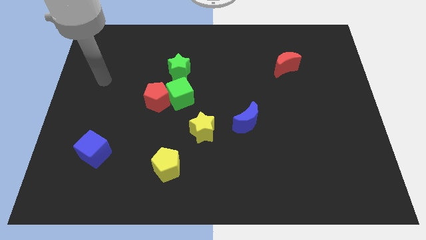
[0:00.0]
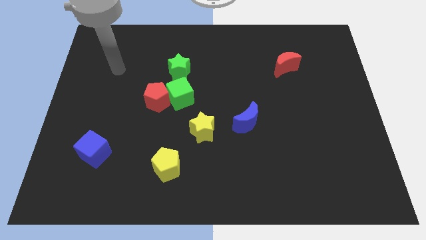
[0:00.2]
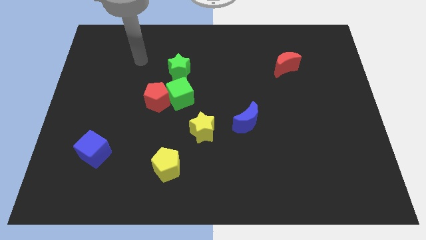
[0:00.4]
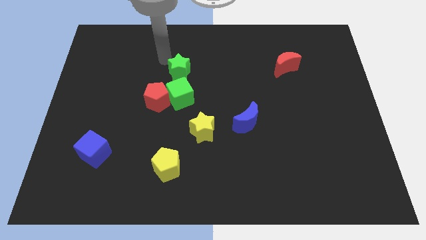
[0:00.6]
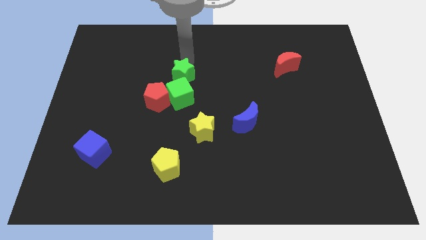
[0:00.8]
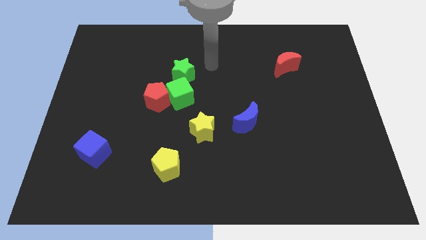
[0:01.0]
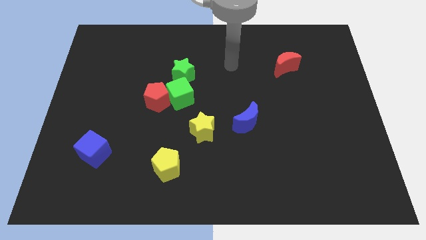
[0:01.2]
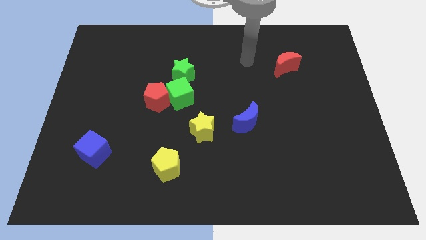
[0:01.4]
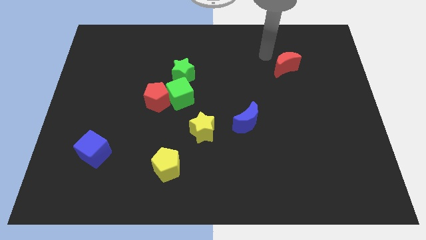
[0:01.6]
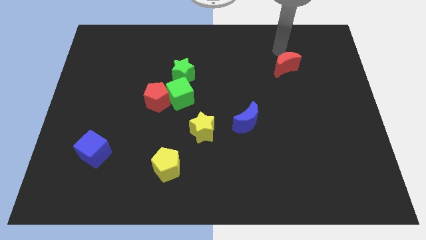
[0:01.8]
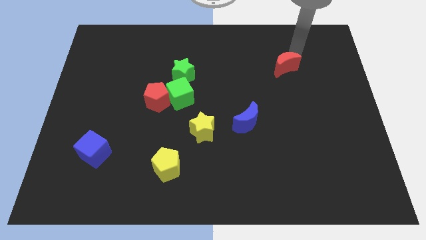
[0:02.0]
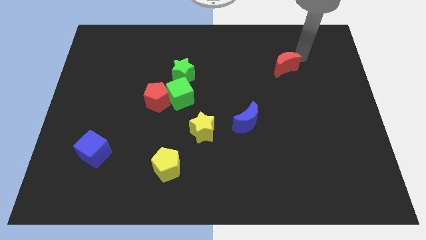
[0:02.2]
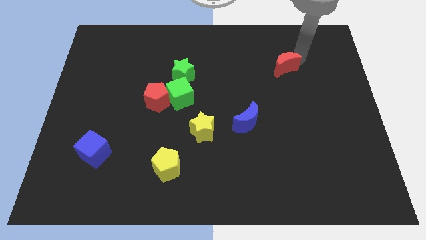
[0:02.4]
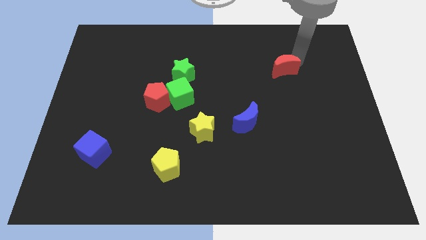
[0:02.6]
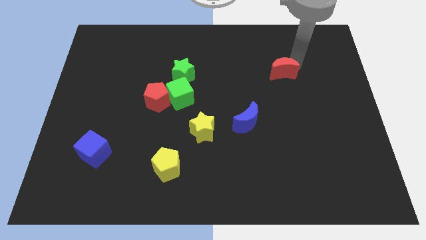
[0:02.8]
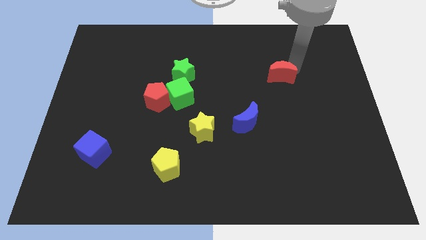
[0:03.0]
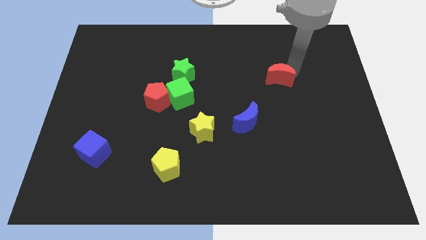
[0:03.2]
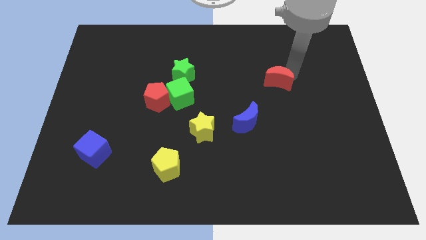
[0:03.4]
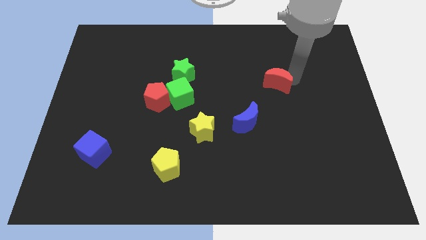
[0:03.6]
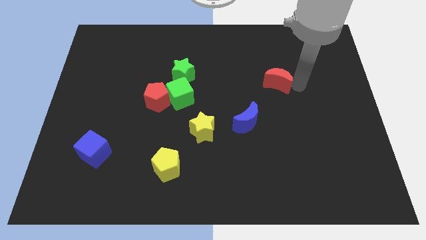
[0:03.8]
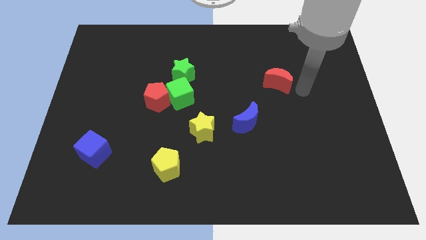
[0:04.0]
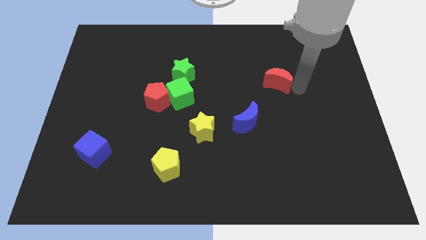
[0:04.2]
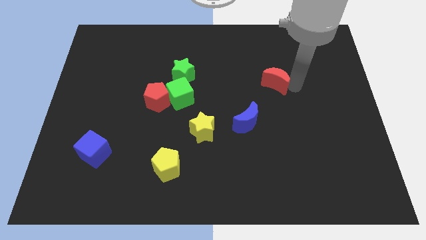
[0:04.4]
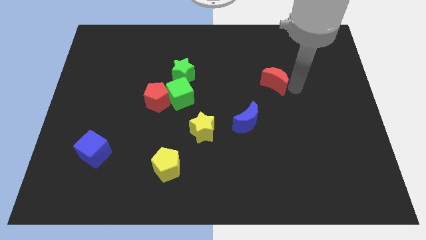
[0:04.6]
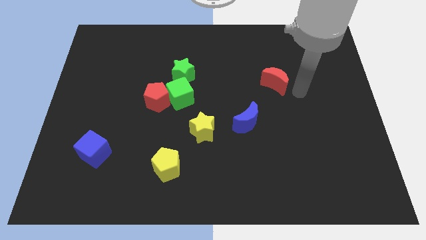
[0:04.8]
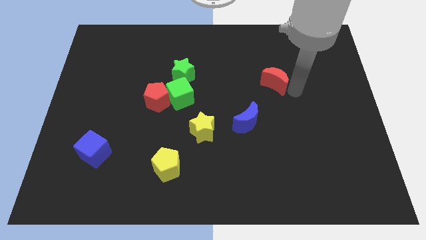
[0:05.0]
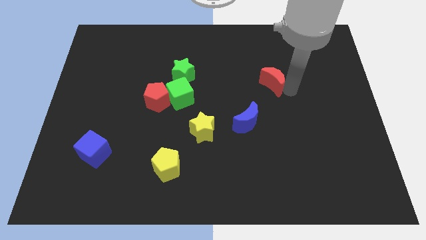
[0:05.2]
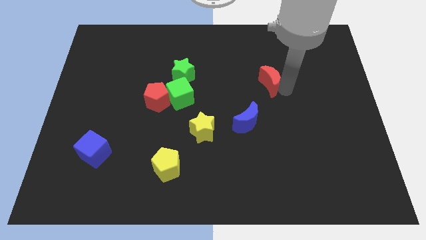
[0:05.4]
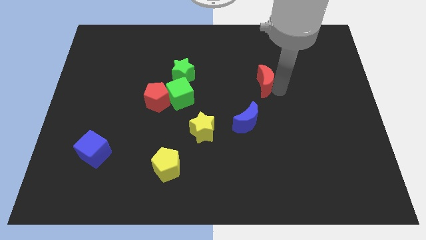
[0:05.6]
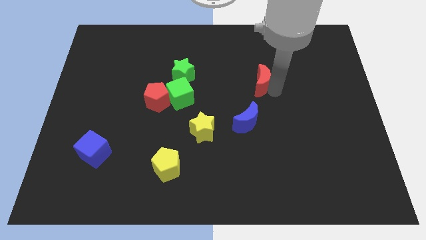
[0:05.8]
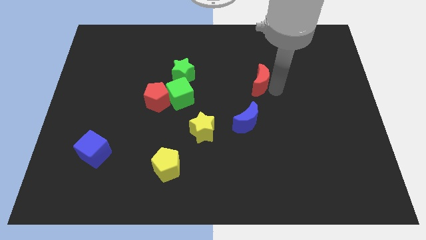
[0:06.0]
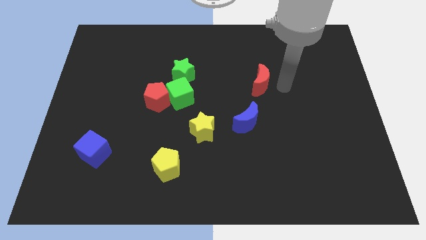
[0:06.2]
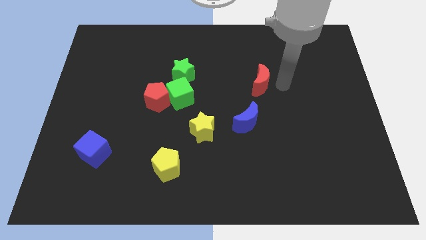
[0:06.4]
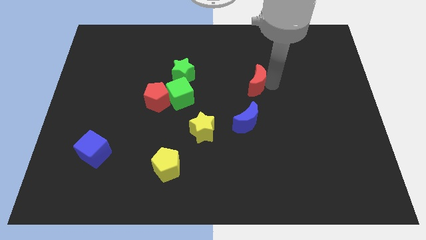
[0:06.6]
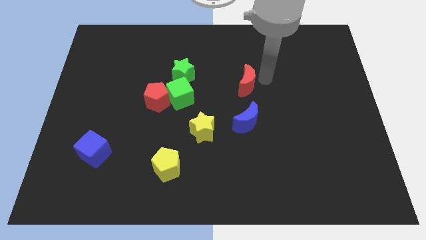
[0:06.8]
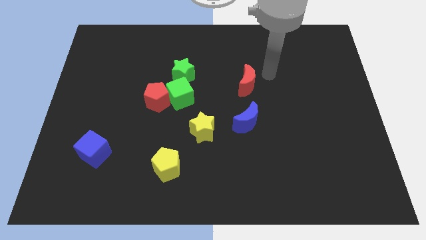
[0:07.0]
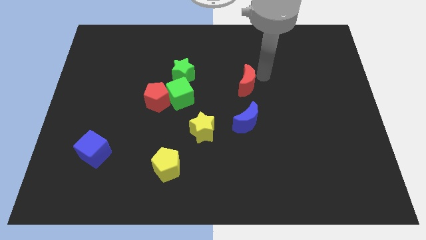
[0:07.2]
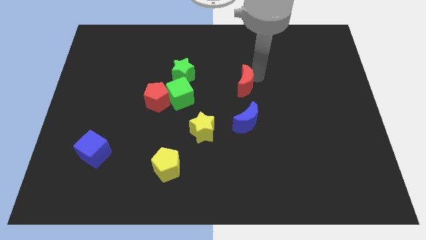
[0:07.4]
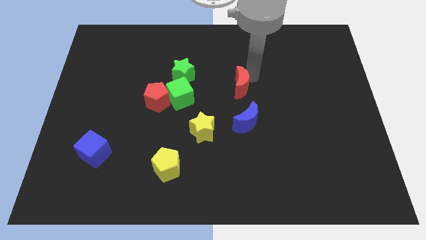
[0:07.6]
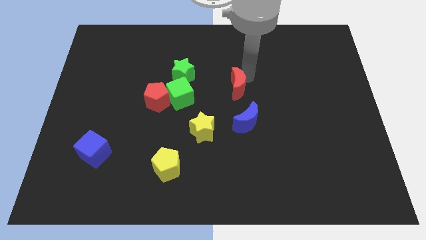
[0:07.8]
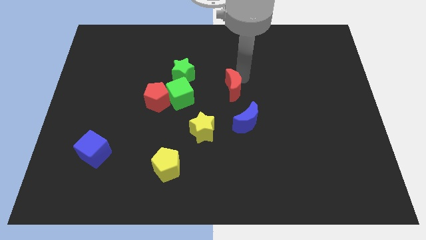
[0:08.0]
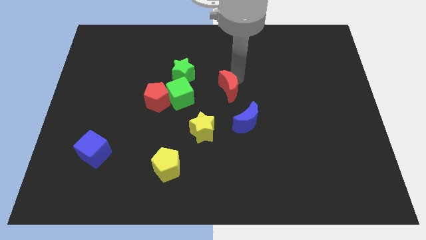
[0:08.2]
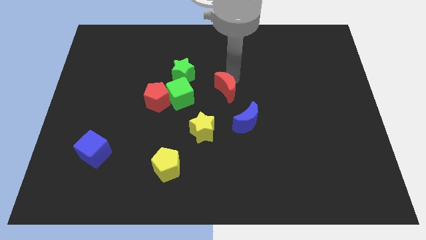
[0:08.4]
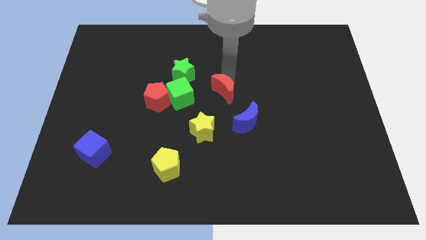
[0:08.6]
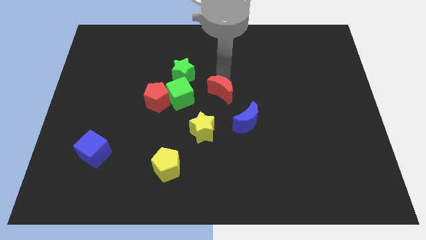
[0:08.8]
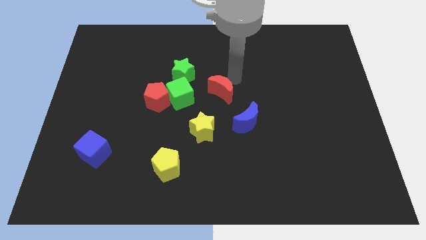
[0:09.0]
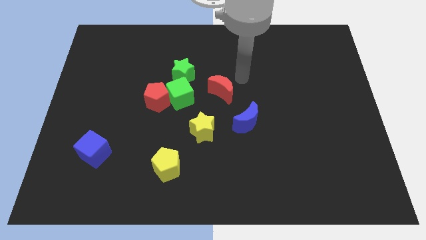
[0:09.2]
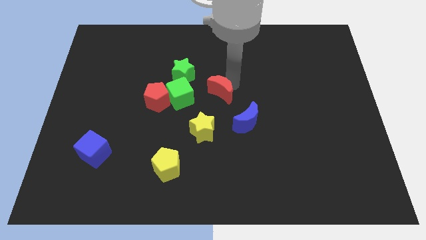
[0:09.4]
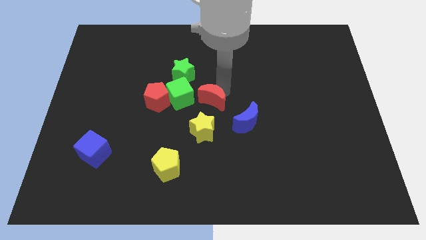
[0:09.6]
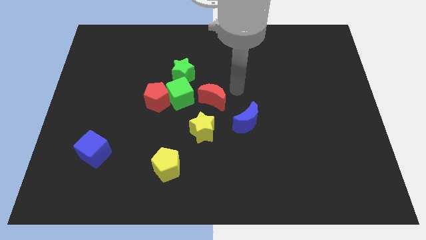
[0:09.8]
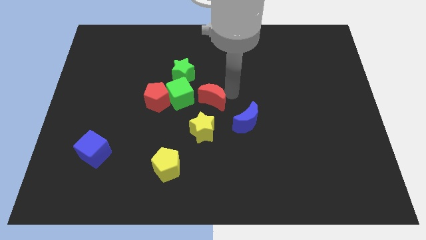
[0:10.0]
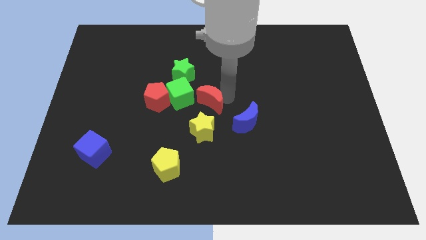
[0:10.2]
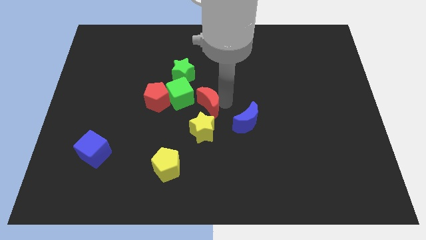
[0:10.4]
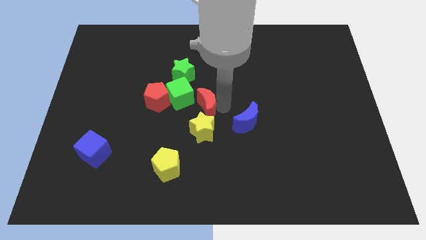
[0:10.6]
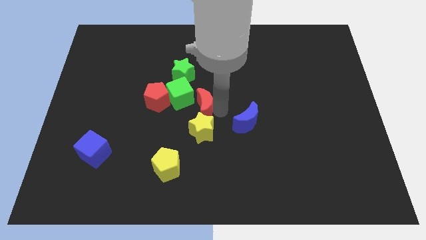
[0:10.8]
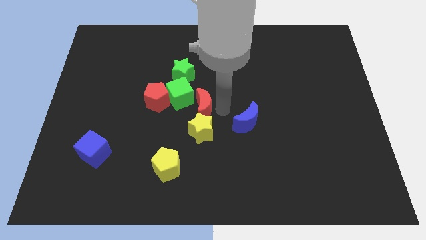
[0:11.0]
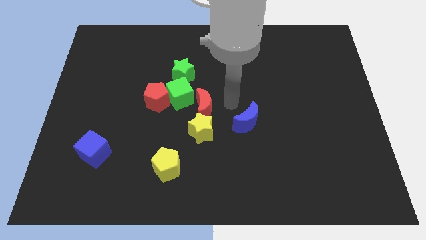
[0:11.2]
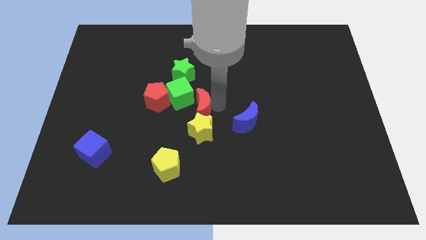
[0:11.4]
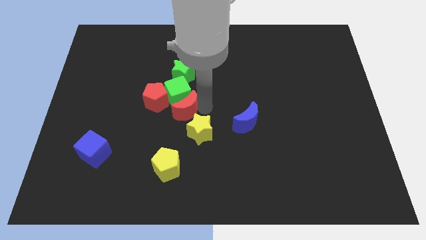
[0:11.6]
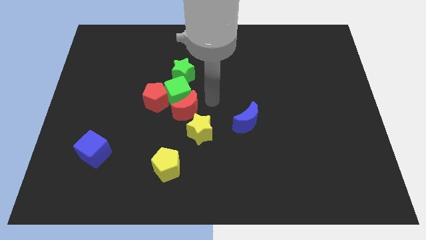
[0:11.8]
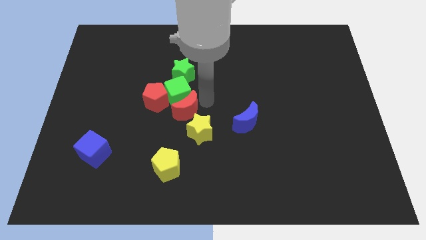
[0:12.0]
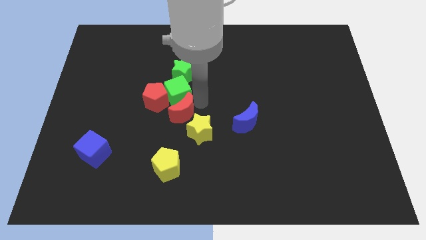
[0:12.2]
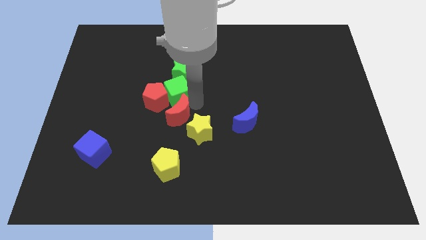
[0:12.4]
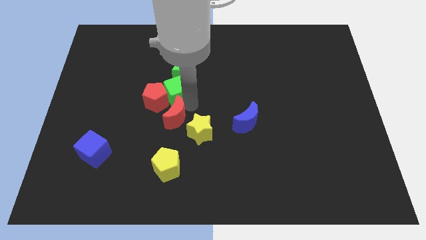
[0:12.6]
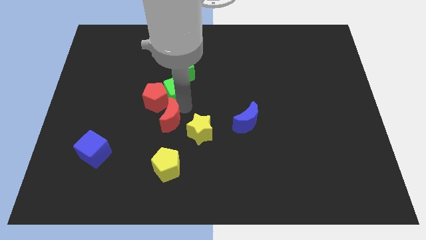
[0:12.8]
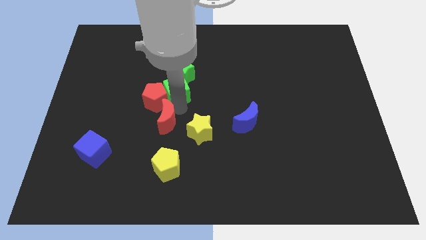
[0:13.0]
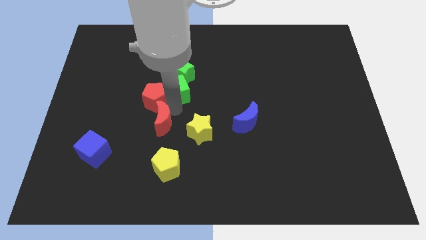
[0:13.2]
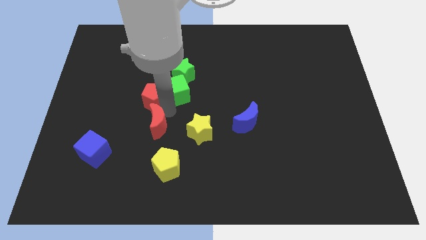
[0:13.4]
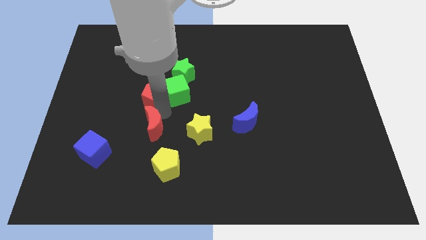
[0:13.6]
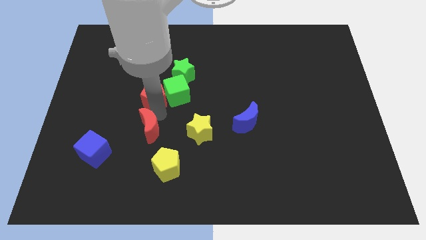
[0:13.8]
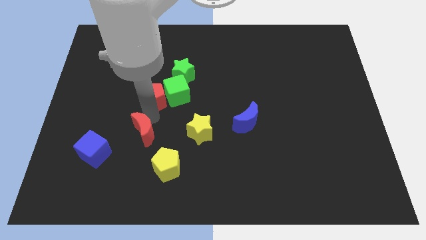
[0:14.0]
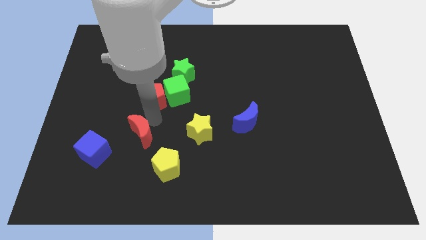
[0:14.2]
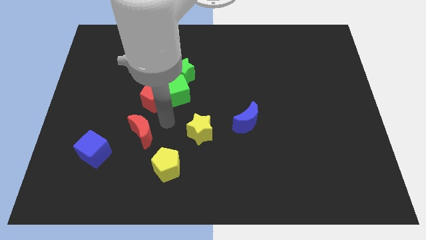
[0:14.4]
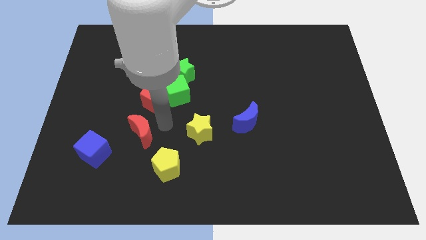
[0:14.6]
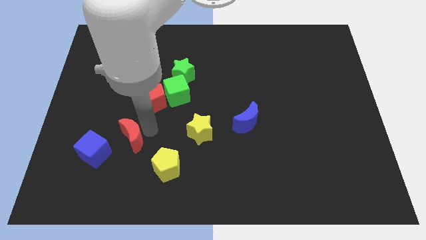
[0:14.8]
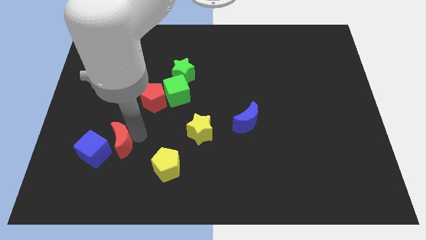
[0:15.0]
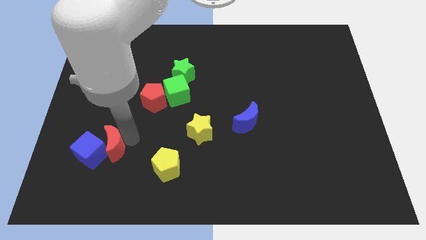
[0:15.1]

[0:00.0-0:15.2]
put the red moon towards the blue cube
